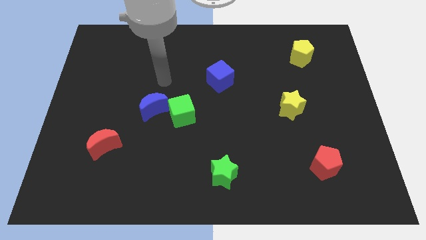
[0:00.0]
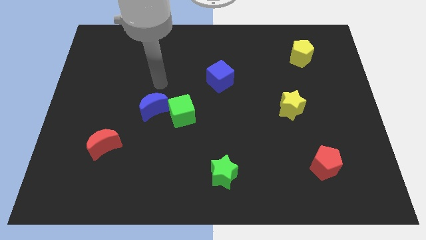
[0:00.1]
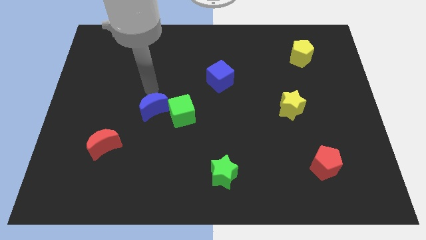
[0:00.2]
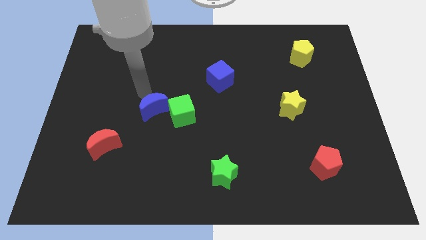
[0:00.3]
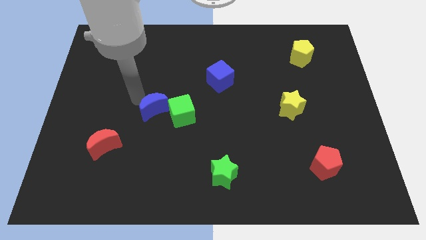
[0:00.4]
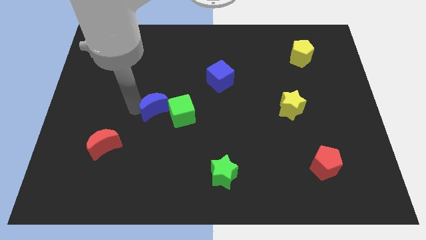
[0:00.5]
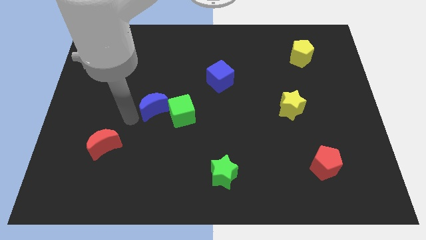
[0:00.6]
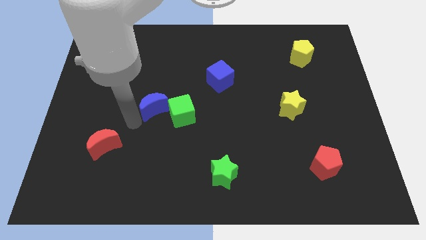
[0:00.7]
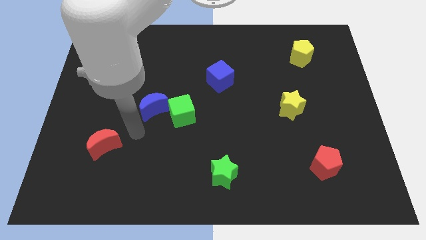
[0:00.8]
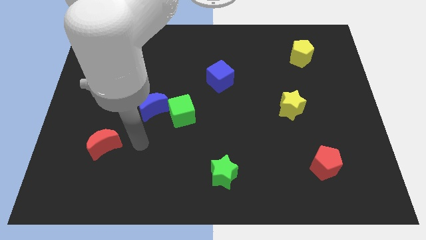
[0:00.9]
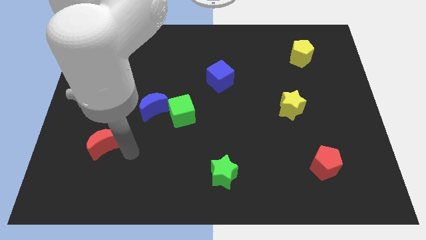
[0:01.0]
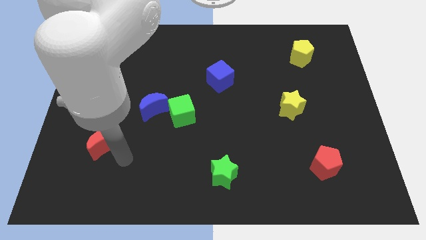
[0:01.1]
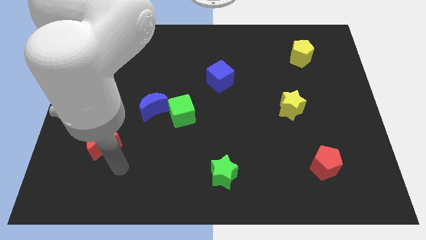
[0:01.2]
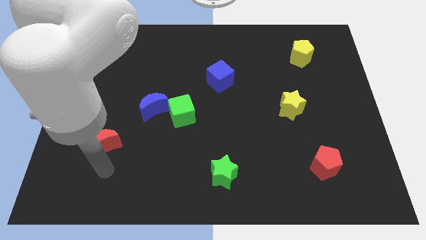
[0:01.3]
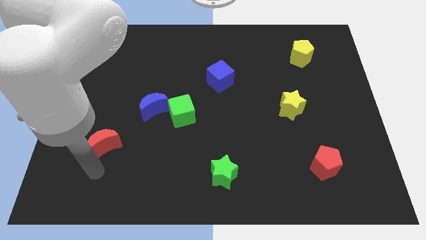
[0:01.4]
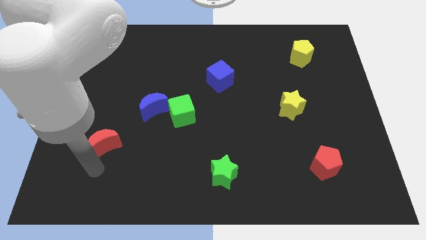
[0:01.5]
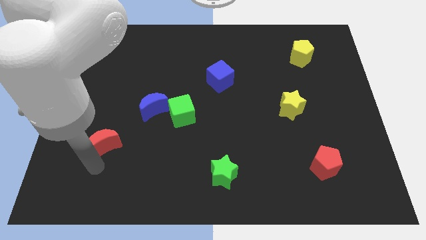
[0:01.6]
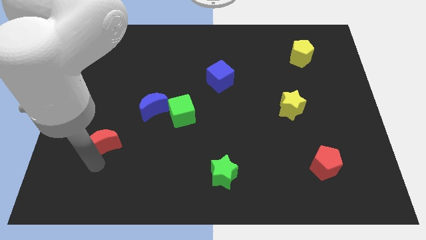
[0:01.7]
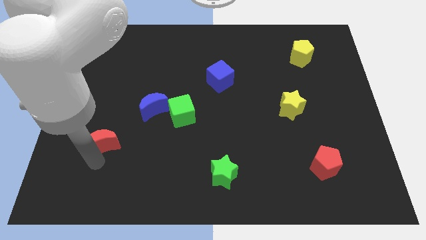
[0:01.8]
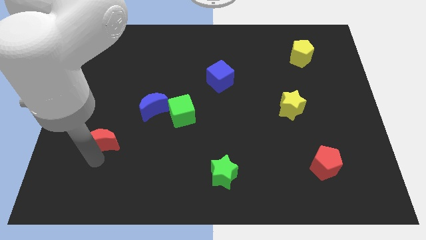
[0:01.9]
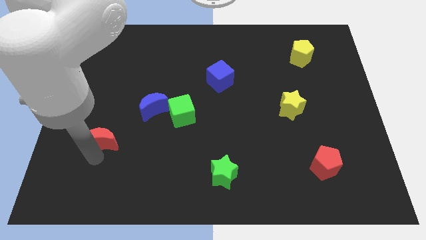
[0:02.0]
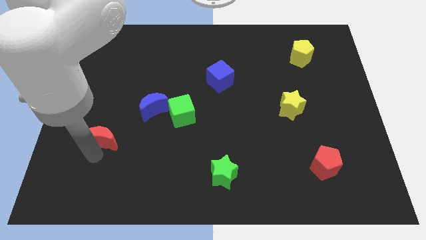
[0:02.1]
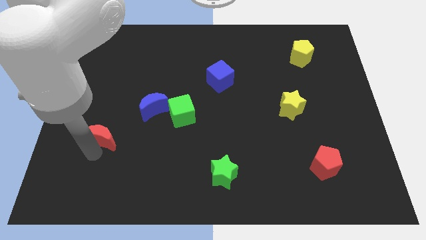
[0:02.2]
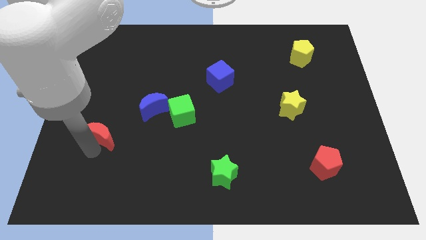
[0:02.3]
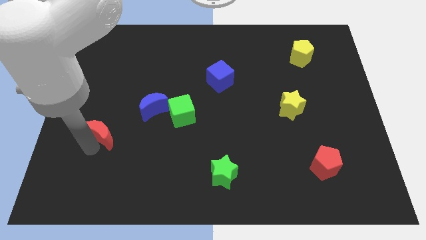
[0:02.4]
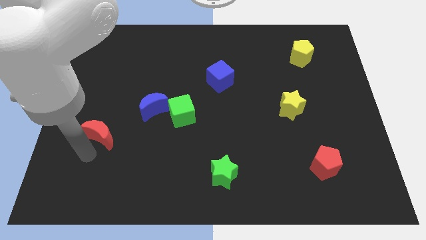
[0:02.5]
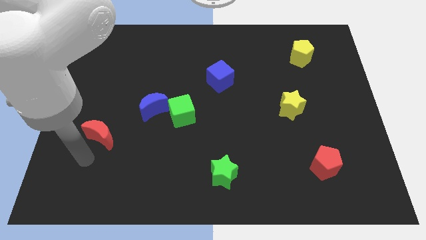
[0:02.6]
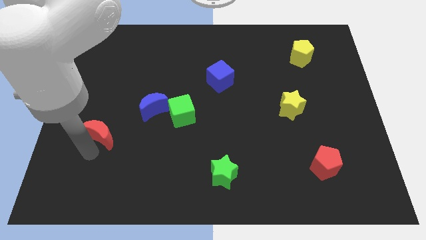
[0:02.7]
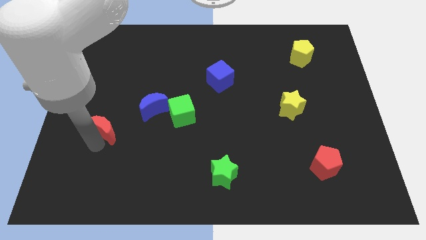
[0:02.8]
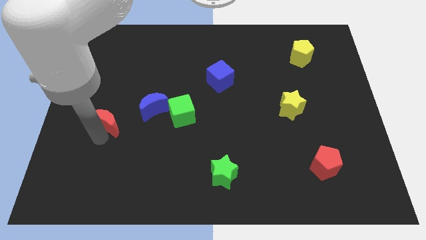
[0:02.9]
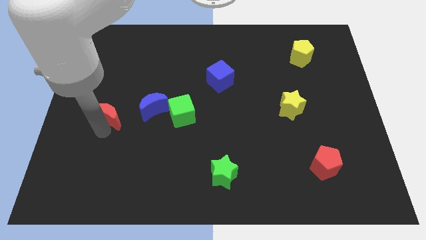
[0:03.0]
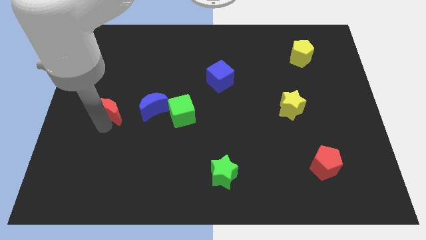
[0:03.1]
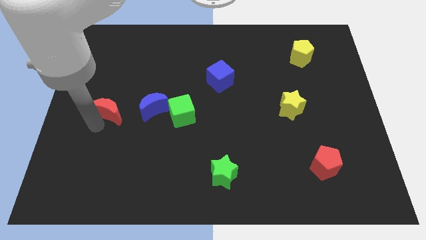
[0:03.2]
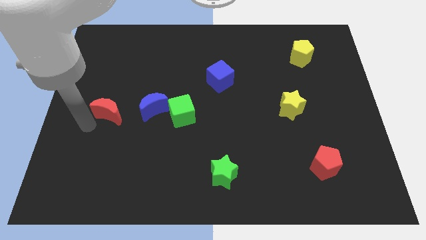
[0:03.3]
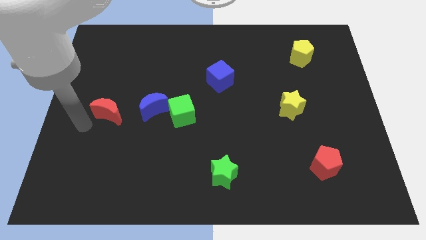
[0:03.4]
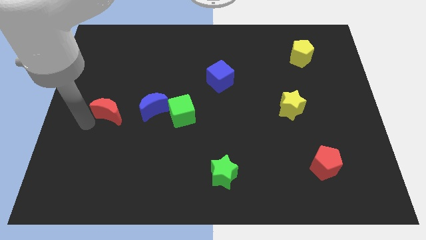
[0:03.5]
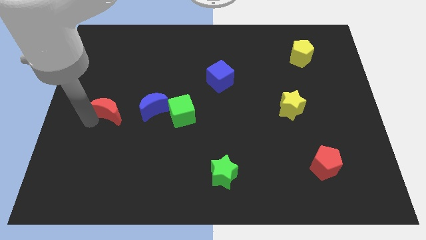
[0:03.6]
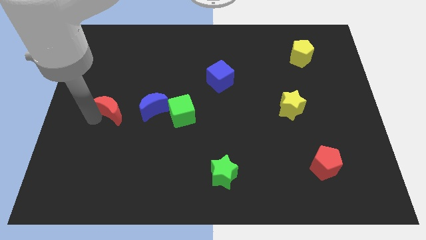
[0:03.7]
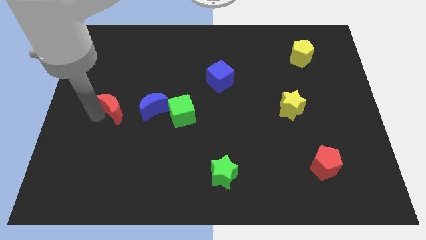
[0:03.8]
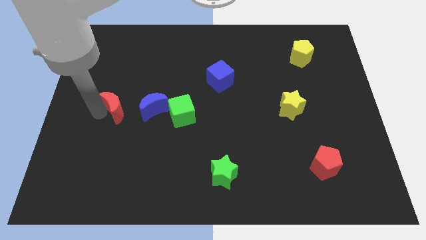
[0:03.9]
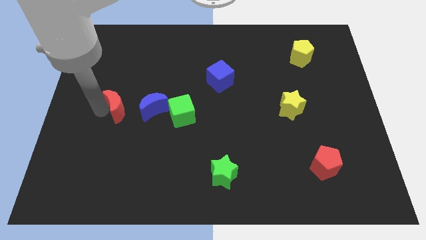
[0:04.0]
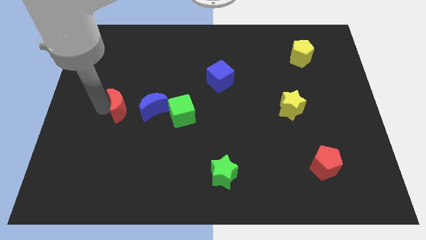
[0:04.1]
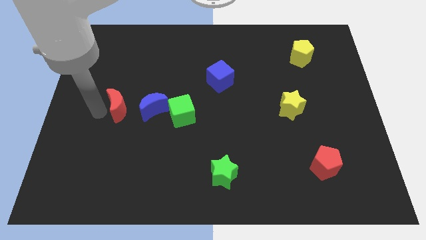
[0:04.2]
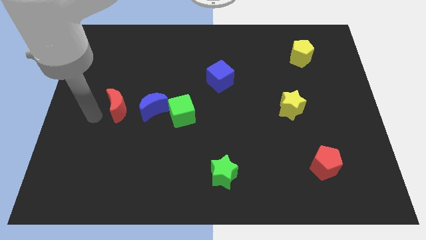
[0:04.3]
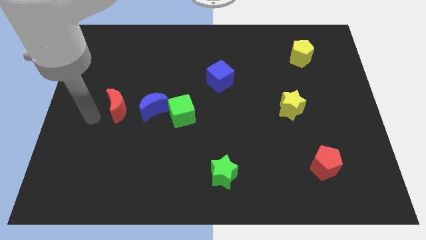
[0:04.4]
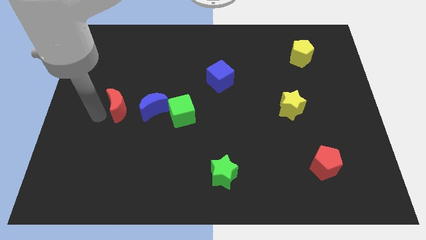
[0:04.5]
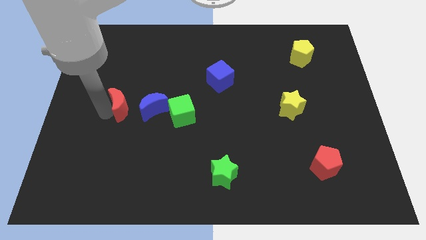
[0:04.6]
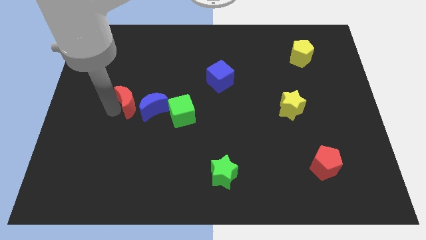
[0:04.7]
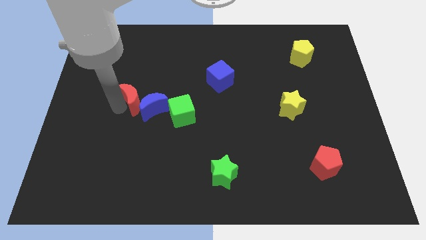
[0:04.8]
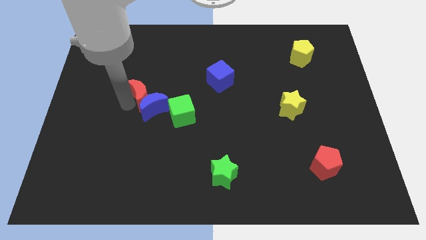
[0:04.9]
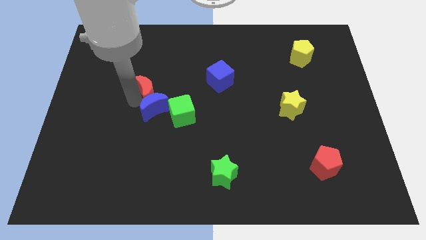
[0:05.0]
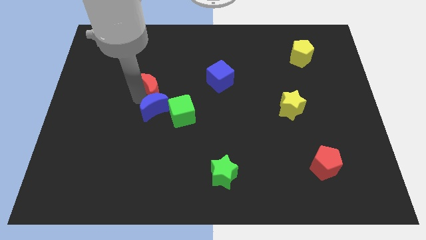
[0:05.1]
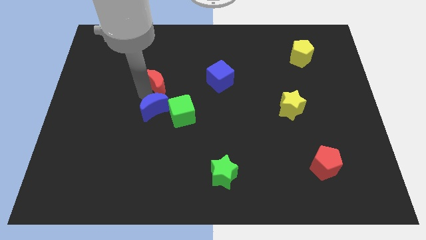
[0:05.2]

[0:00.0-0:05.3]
push the red moon left of the blue cube

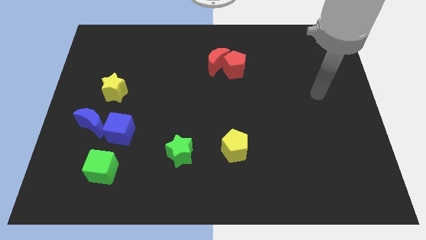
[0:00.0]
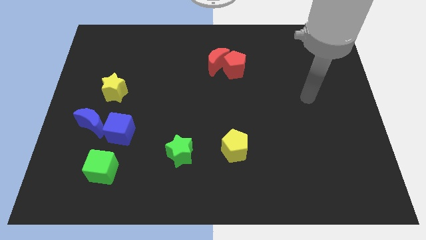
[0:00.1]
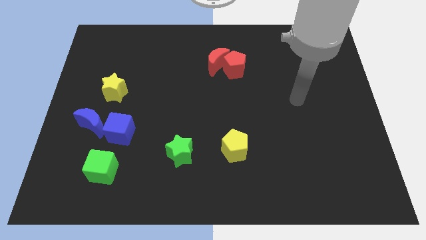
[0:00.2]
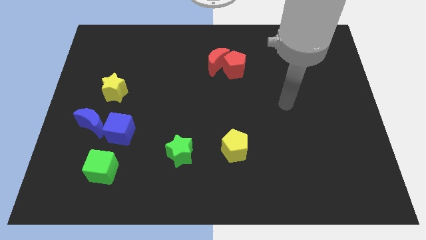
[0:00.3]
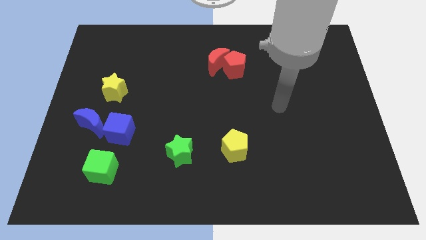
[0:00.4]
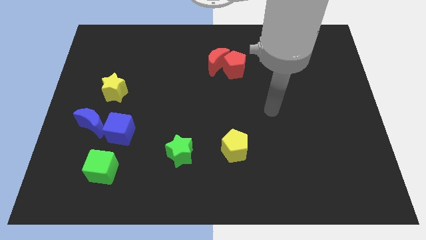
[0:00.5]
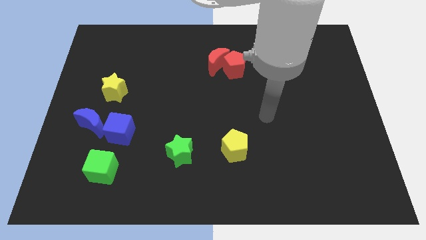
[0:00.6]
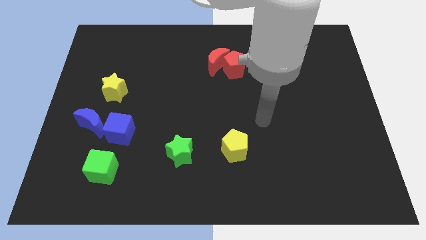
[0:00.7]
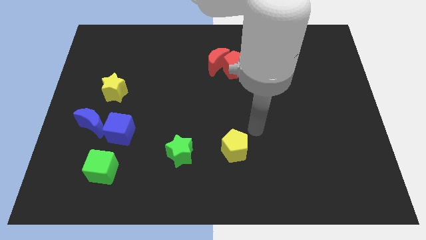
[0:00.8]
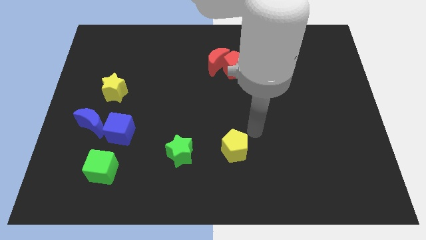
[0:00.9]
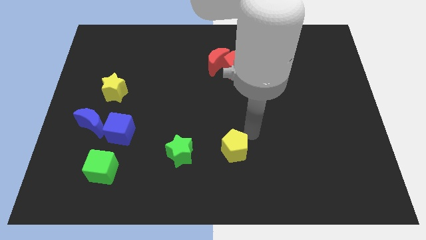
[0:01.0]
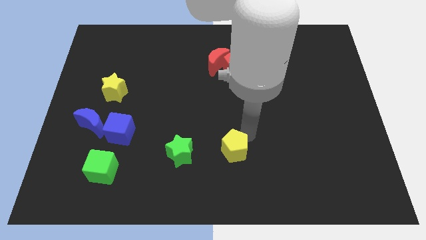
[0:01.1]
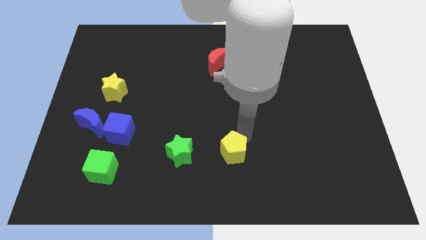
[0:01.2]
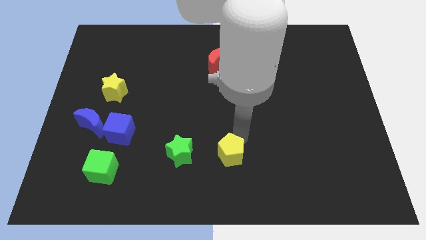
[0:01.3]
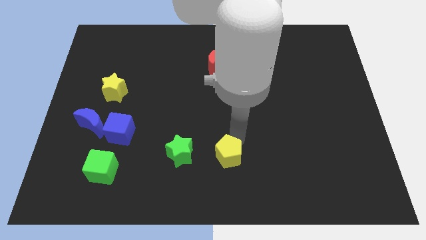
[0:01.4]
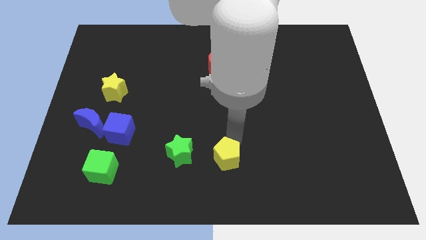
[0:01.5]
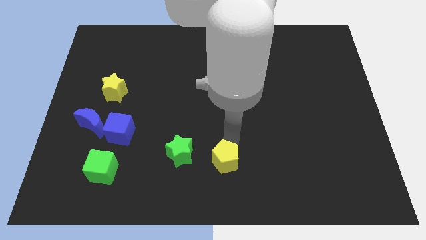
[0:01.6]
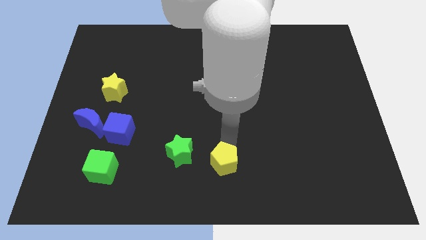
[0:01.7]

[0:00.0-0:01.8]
put the yellow pentagon to the bottom right of the green star

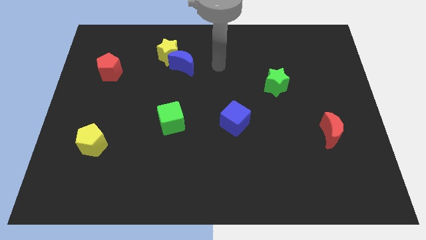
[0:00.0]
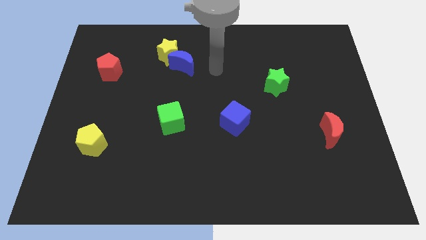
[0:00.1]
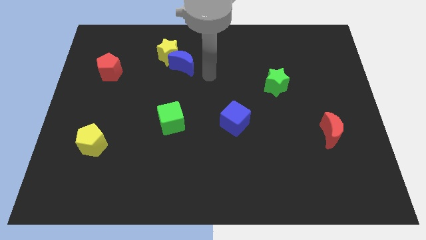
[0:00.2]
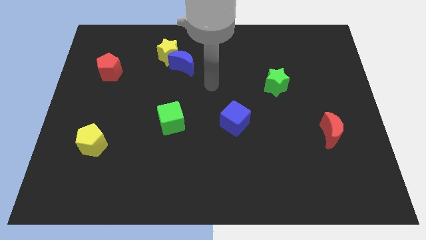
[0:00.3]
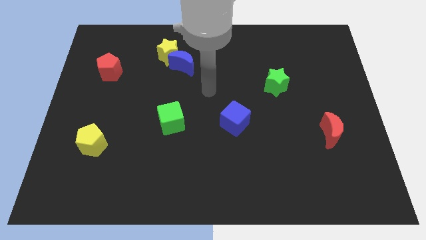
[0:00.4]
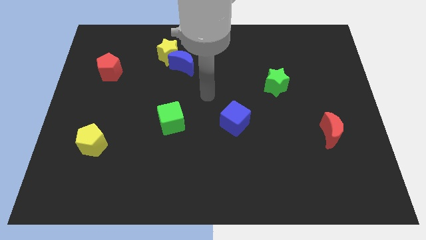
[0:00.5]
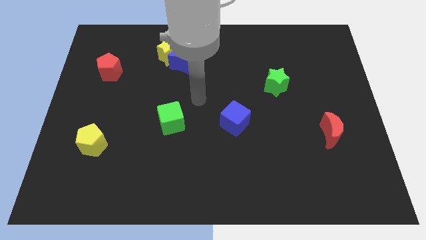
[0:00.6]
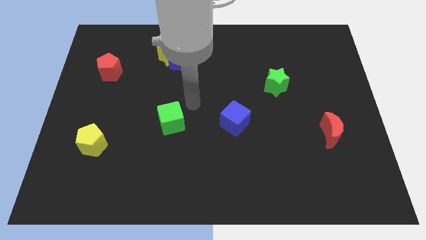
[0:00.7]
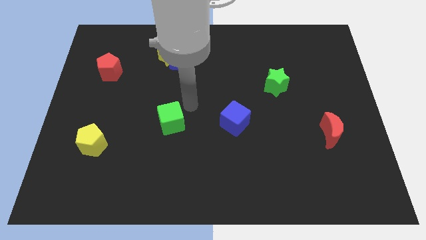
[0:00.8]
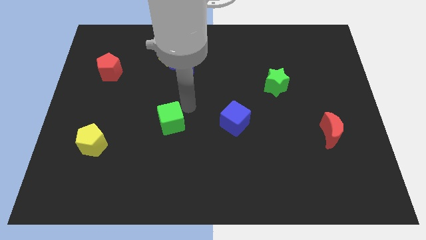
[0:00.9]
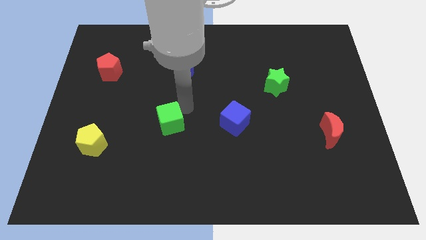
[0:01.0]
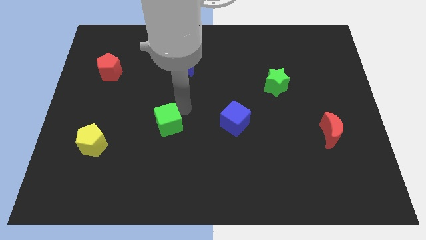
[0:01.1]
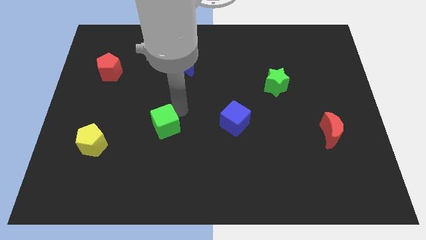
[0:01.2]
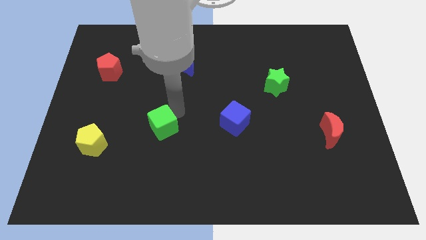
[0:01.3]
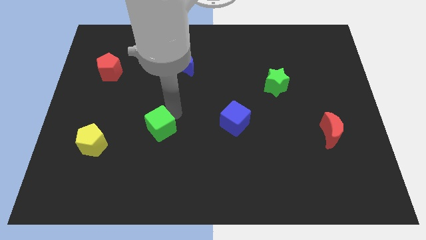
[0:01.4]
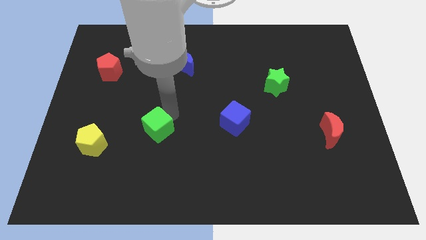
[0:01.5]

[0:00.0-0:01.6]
push the green cube just right of the yellow pentagon

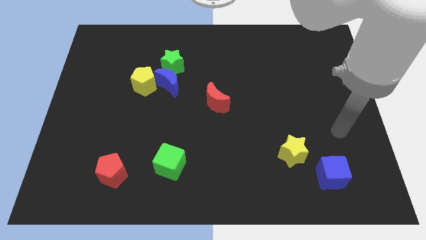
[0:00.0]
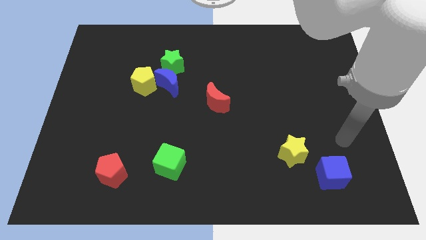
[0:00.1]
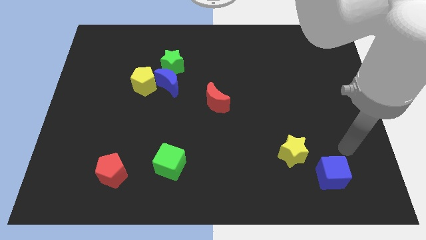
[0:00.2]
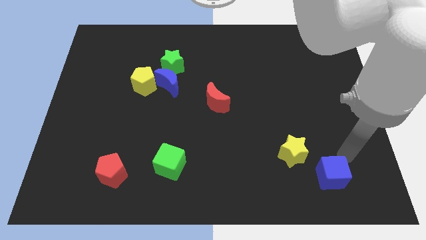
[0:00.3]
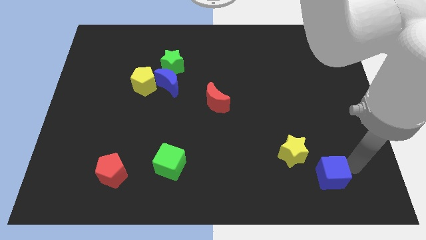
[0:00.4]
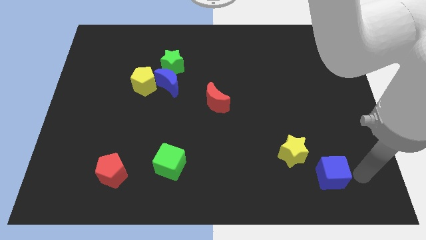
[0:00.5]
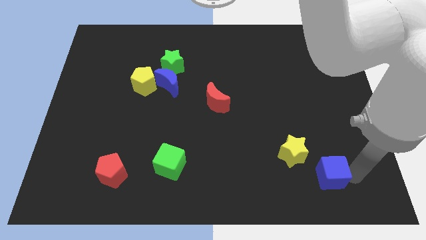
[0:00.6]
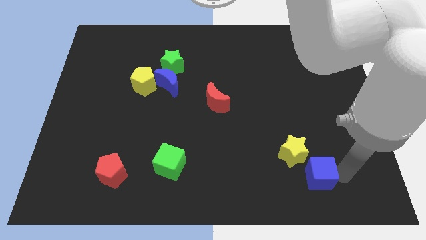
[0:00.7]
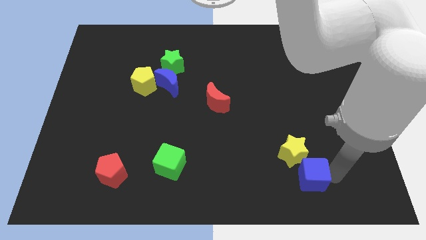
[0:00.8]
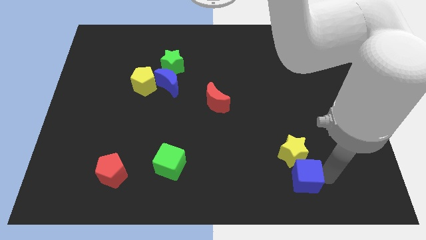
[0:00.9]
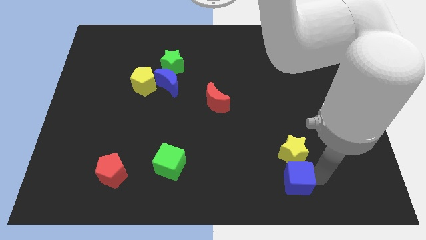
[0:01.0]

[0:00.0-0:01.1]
put the blue cube to the bottom left of the yellow star
